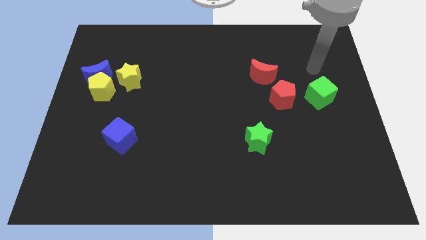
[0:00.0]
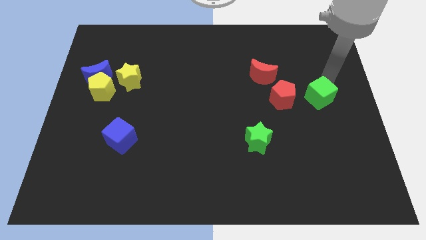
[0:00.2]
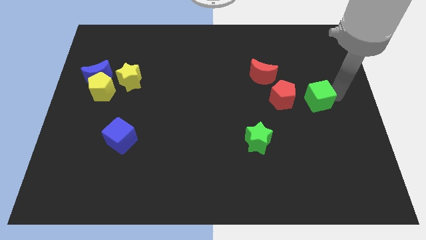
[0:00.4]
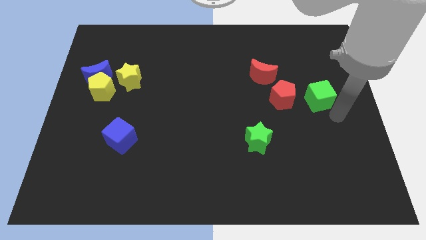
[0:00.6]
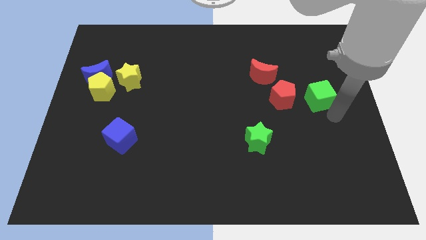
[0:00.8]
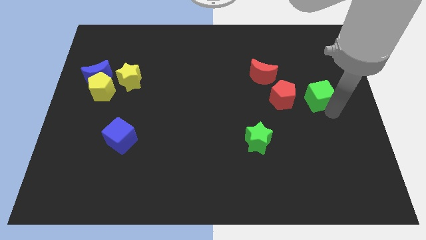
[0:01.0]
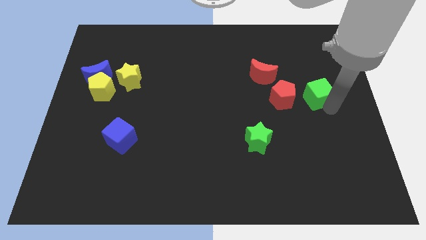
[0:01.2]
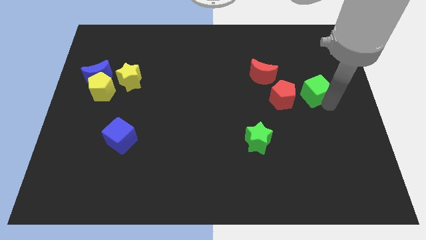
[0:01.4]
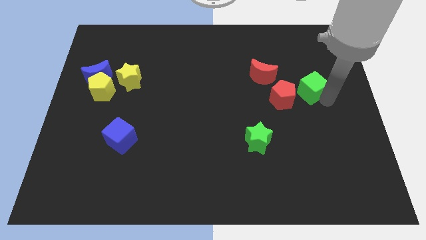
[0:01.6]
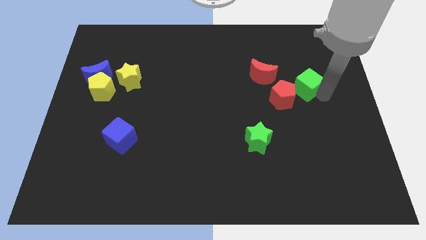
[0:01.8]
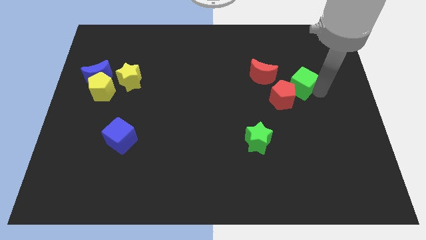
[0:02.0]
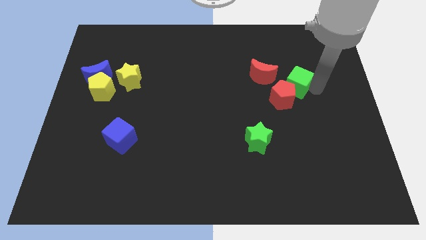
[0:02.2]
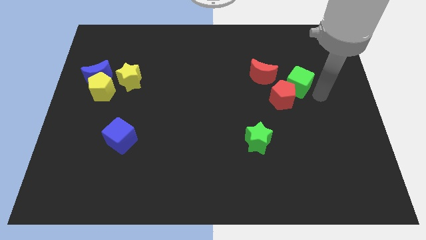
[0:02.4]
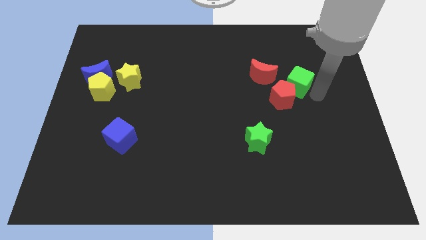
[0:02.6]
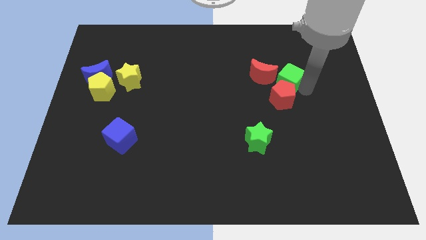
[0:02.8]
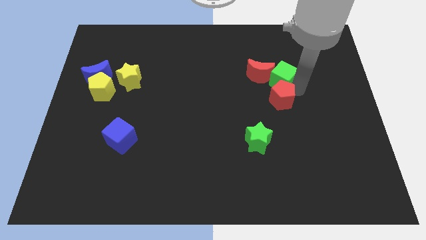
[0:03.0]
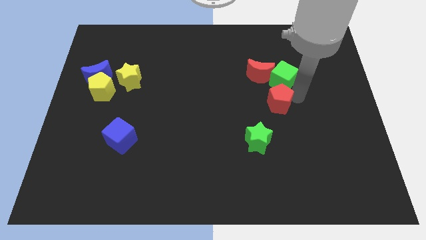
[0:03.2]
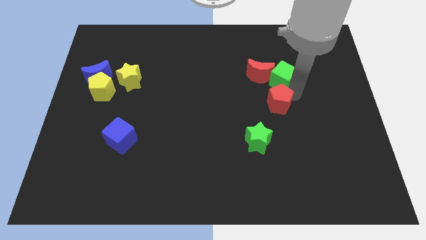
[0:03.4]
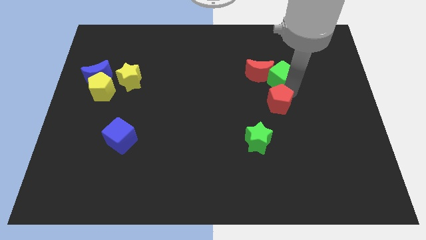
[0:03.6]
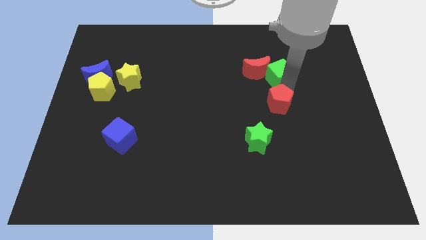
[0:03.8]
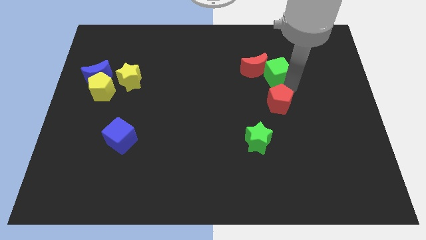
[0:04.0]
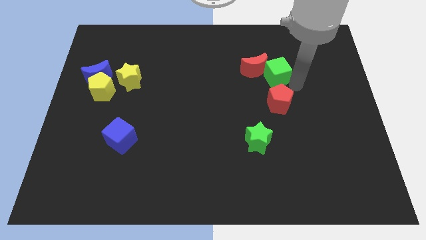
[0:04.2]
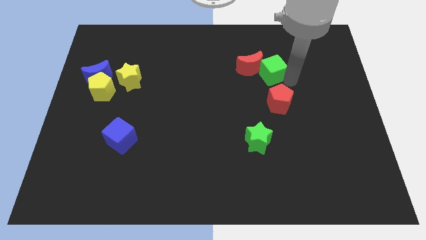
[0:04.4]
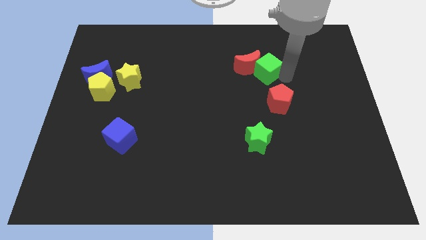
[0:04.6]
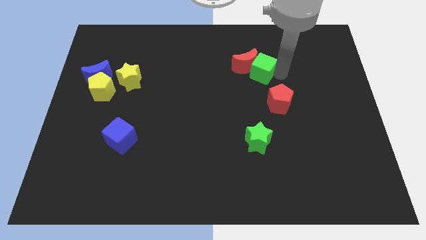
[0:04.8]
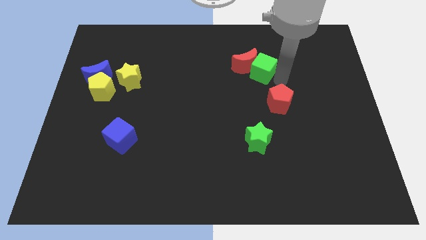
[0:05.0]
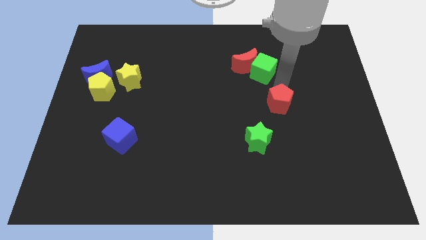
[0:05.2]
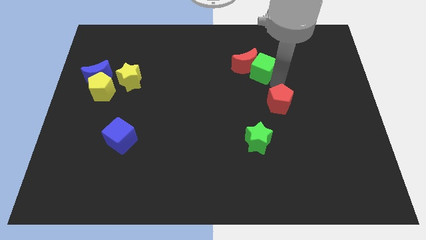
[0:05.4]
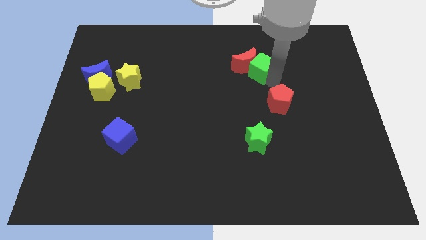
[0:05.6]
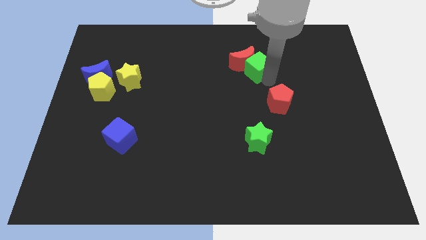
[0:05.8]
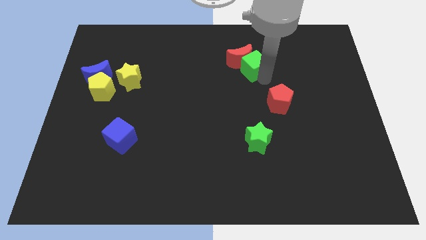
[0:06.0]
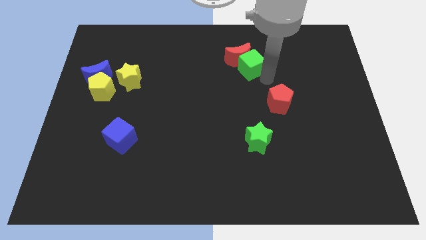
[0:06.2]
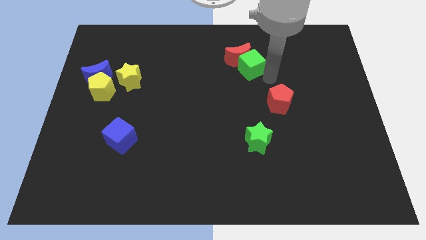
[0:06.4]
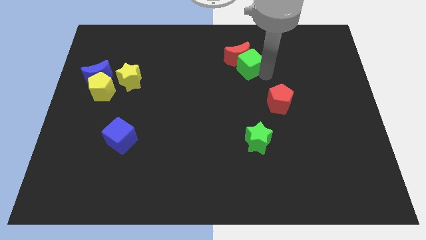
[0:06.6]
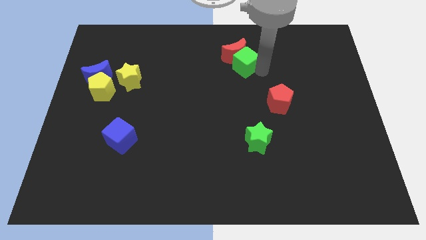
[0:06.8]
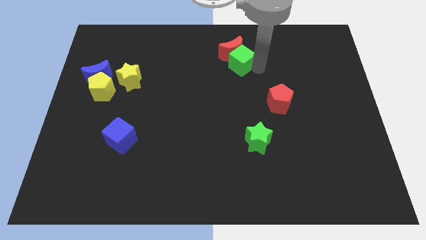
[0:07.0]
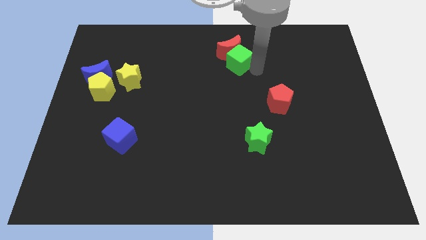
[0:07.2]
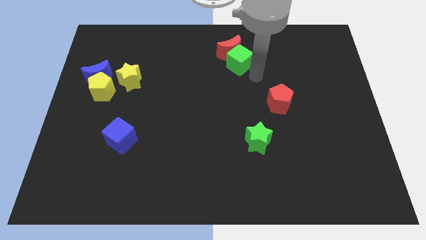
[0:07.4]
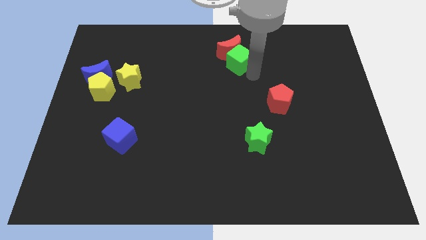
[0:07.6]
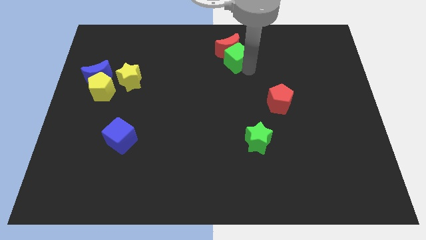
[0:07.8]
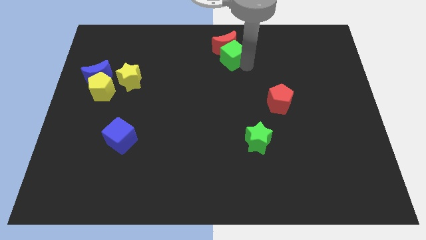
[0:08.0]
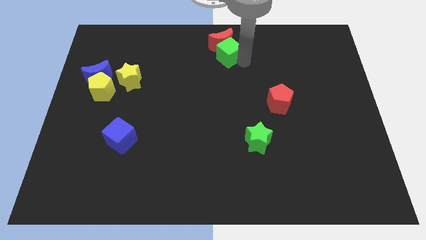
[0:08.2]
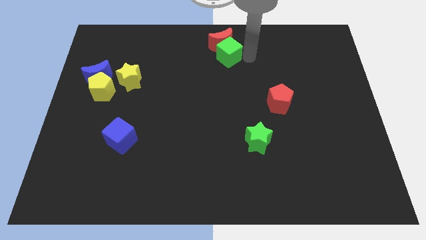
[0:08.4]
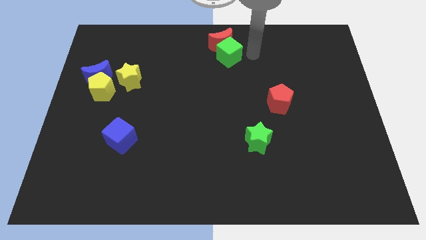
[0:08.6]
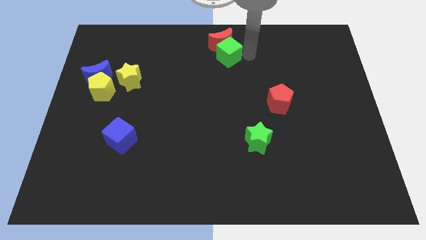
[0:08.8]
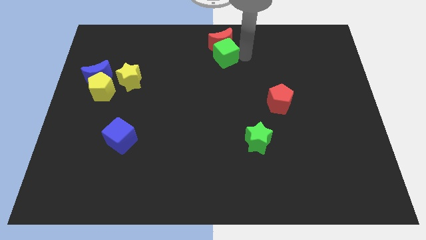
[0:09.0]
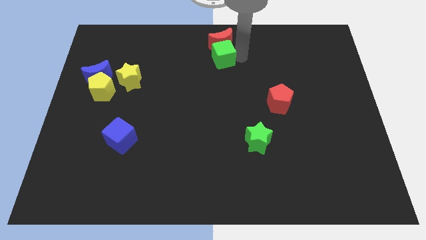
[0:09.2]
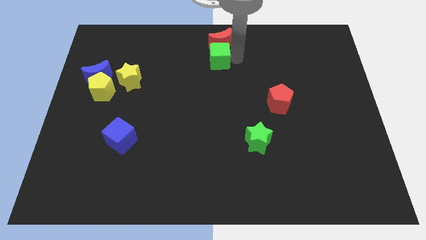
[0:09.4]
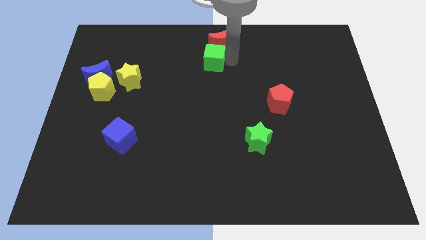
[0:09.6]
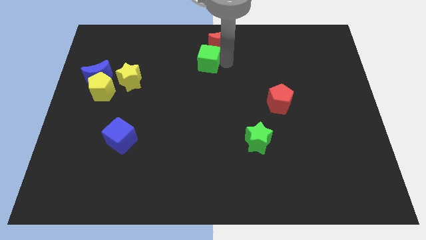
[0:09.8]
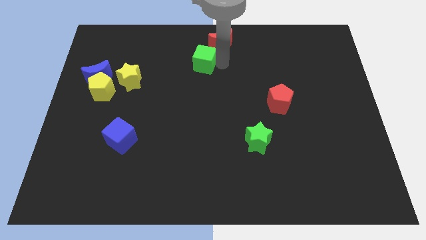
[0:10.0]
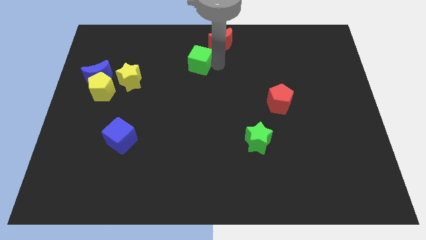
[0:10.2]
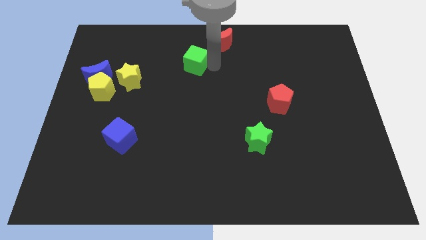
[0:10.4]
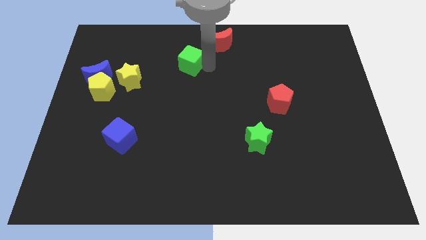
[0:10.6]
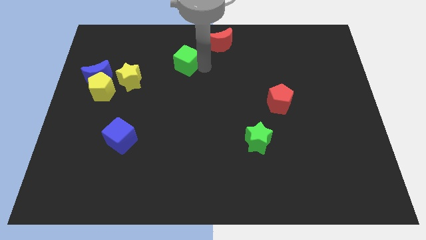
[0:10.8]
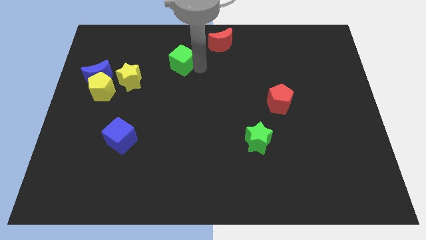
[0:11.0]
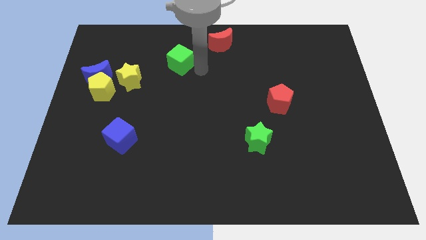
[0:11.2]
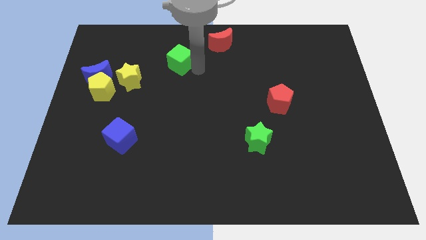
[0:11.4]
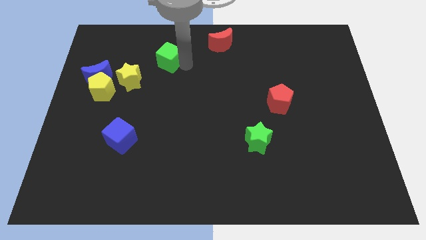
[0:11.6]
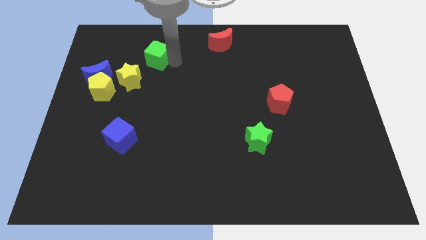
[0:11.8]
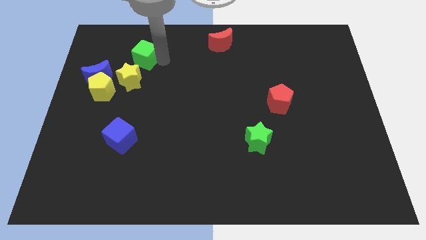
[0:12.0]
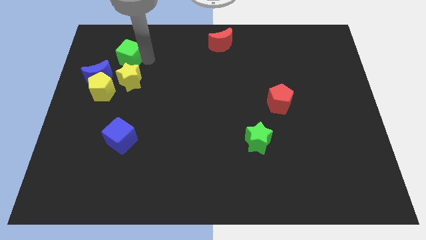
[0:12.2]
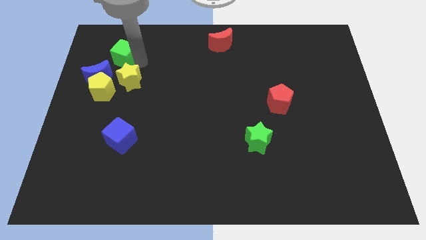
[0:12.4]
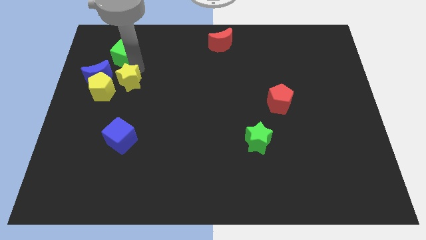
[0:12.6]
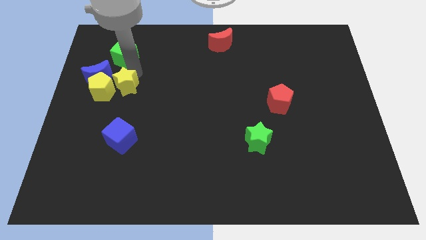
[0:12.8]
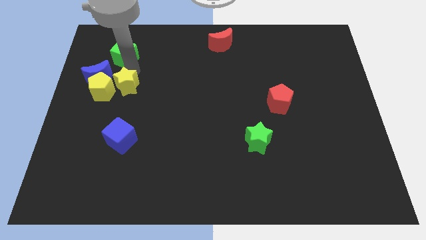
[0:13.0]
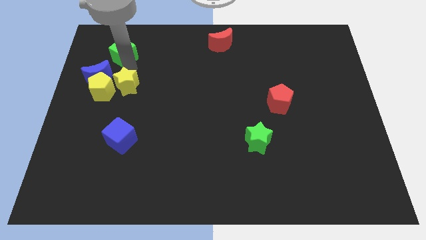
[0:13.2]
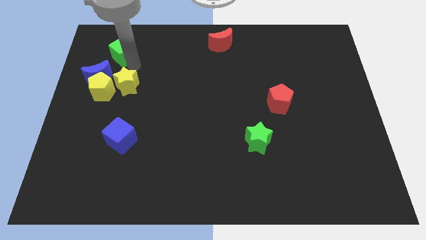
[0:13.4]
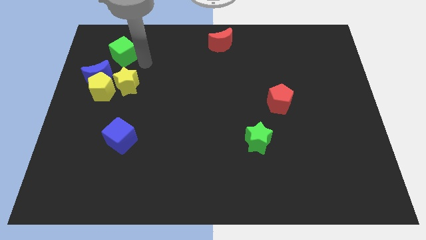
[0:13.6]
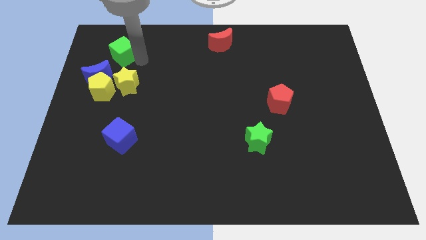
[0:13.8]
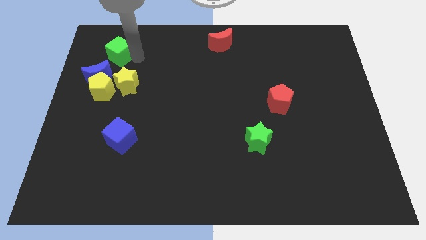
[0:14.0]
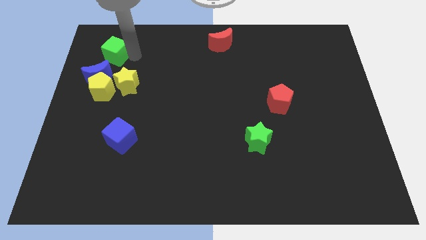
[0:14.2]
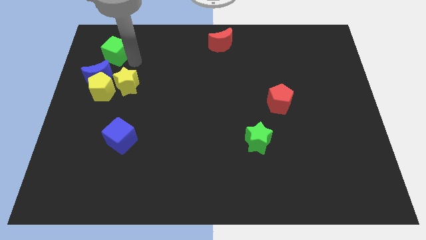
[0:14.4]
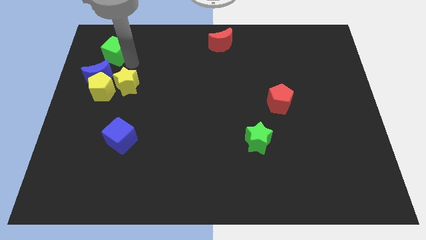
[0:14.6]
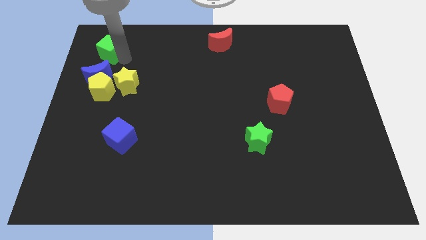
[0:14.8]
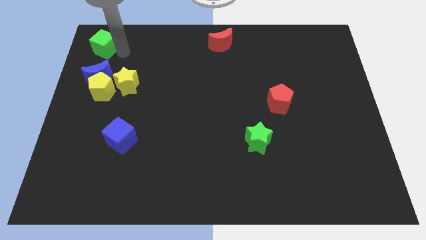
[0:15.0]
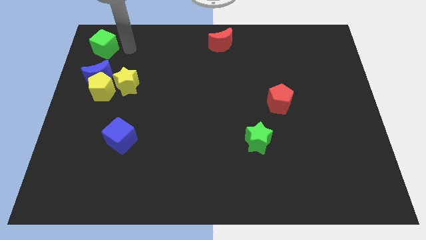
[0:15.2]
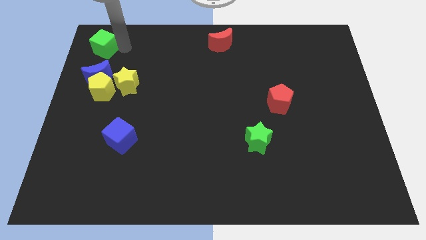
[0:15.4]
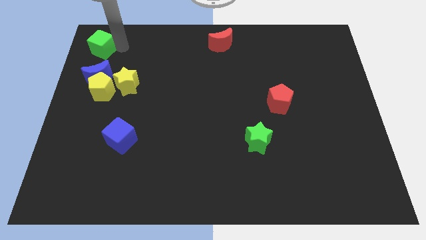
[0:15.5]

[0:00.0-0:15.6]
slide the green cube to the top left corner
